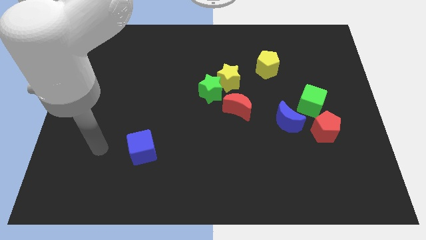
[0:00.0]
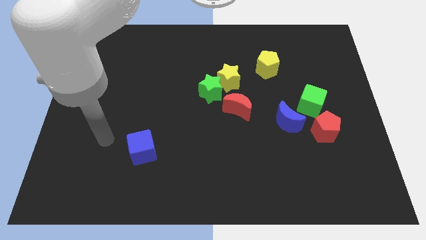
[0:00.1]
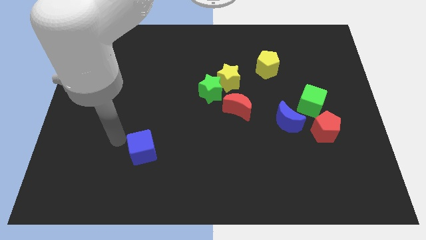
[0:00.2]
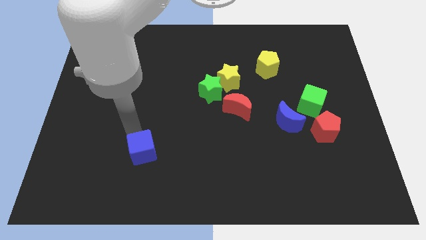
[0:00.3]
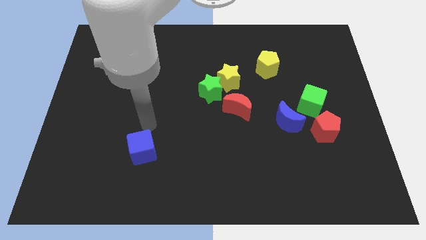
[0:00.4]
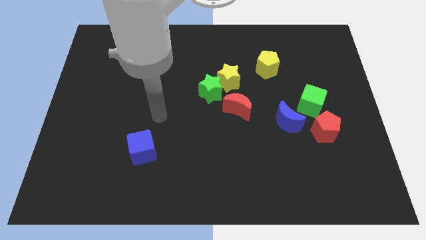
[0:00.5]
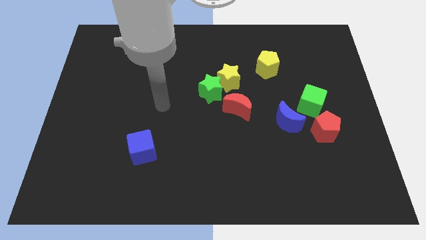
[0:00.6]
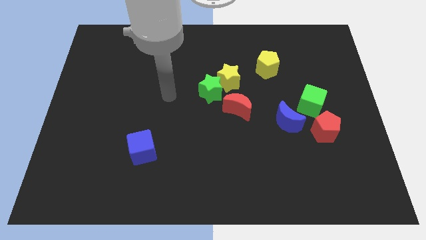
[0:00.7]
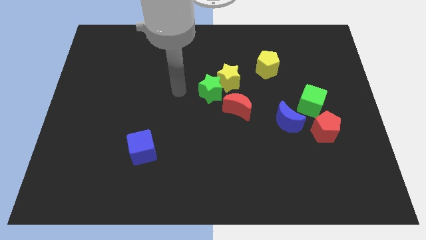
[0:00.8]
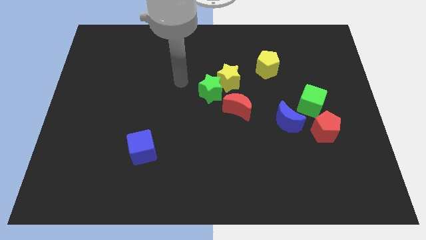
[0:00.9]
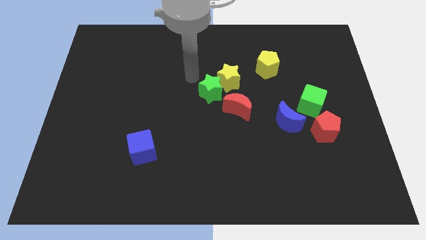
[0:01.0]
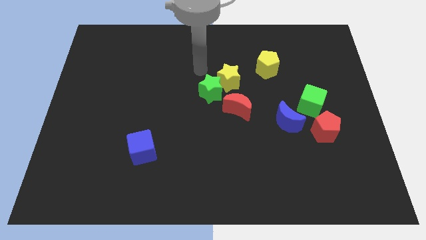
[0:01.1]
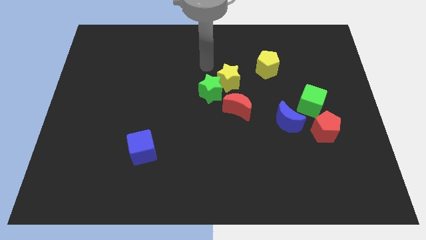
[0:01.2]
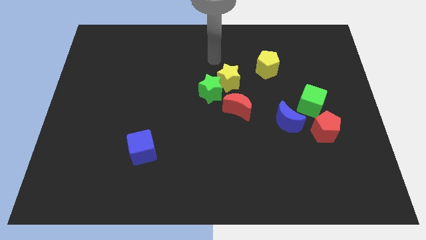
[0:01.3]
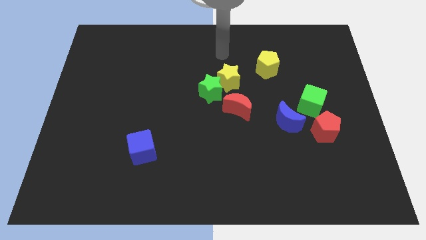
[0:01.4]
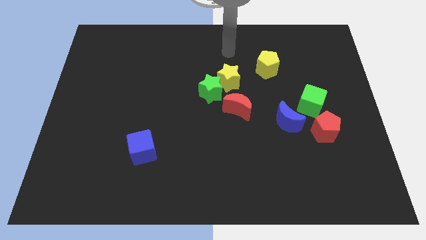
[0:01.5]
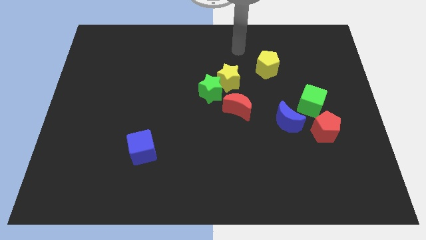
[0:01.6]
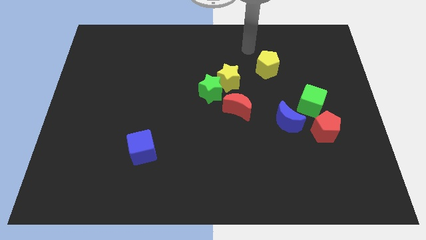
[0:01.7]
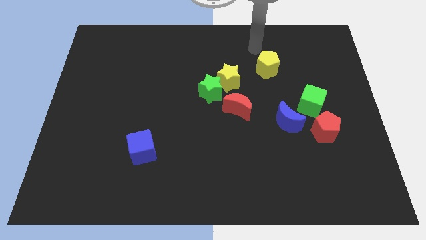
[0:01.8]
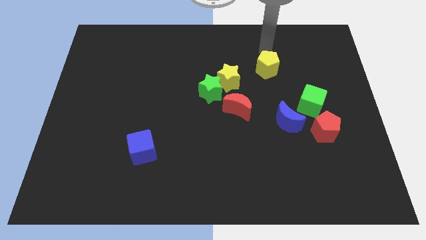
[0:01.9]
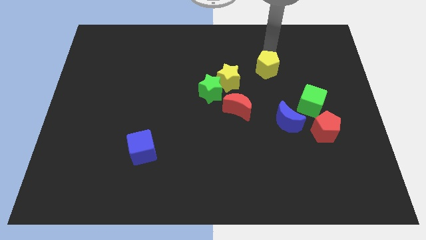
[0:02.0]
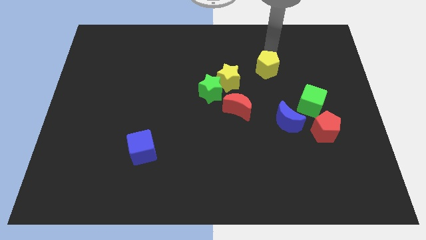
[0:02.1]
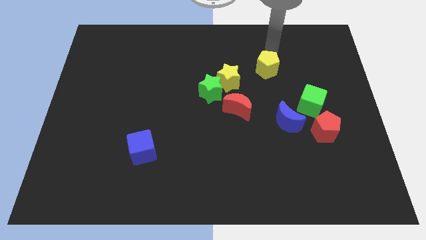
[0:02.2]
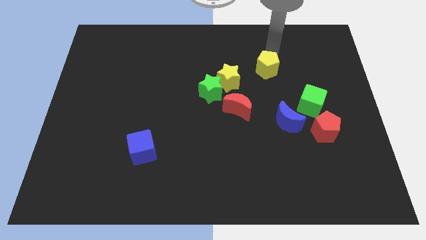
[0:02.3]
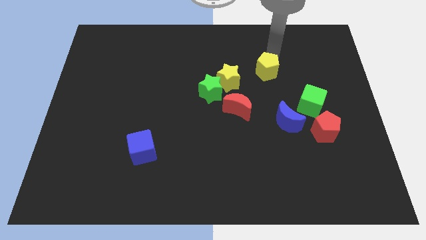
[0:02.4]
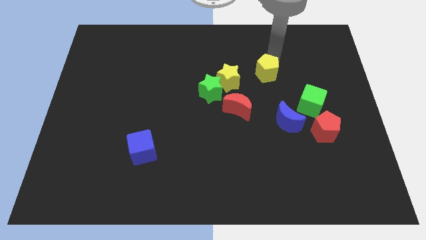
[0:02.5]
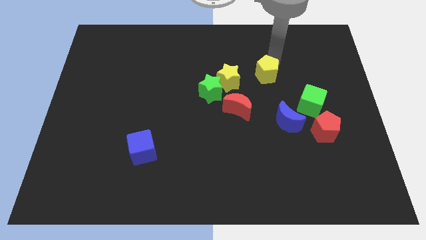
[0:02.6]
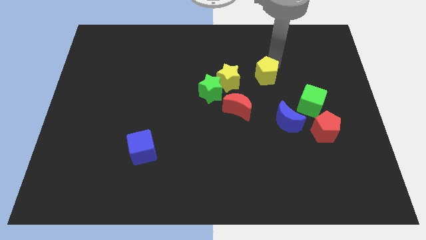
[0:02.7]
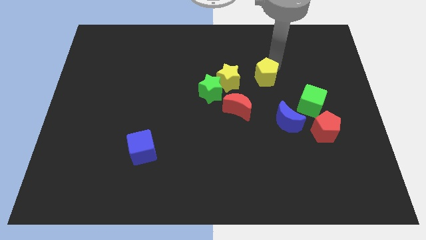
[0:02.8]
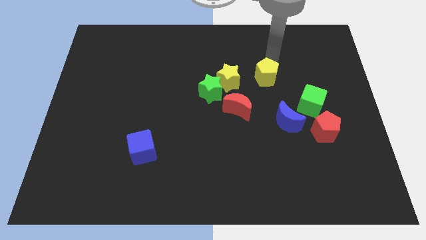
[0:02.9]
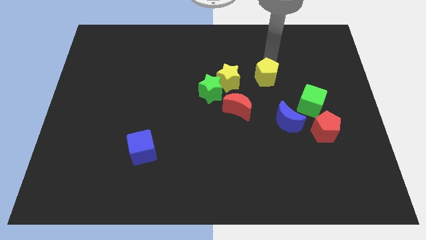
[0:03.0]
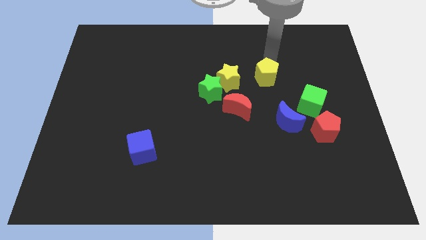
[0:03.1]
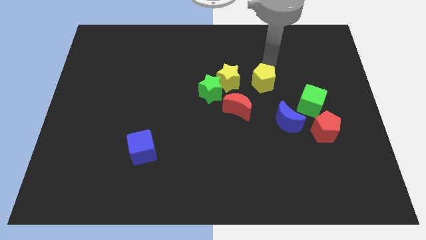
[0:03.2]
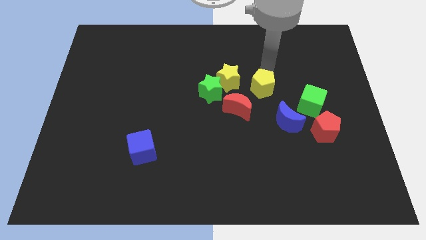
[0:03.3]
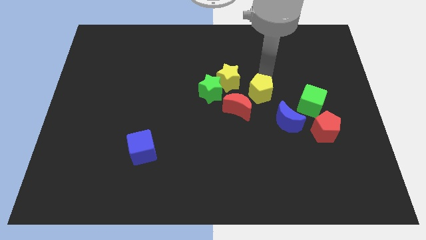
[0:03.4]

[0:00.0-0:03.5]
push the yellow pentagon diagonally down and left a little

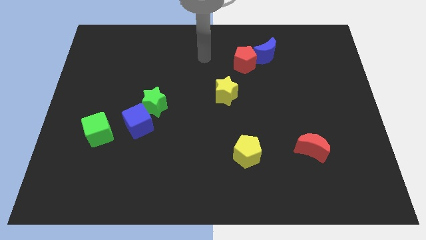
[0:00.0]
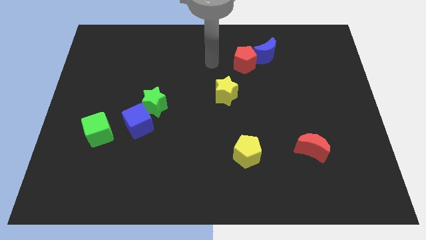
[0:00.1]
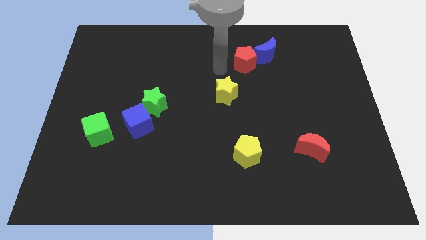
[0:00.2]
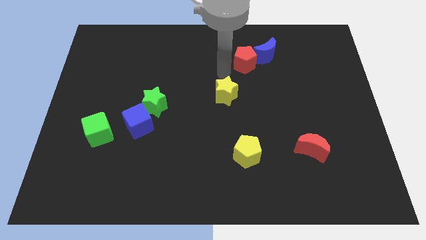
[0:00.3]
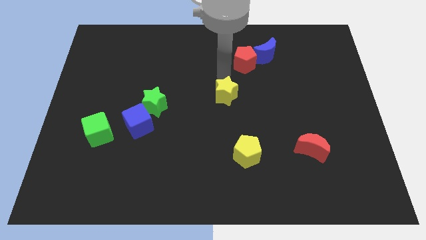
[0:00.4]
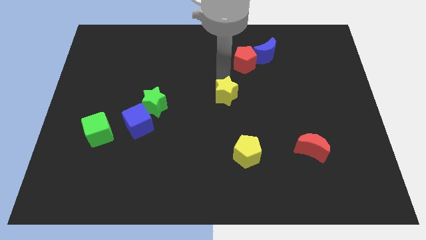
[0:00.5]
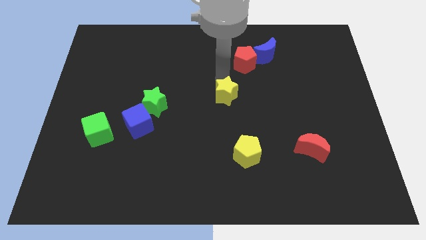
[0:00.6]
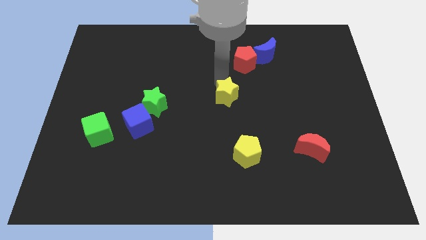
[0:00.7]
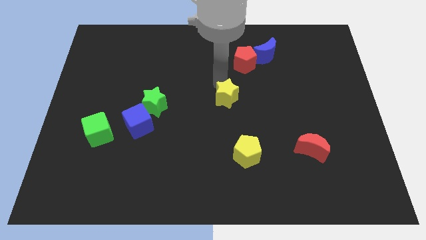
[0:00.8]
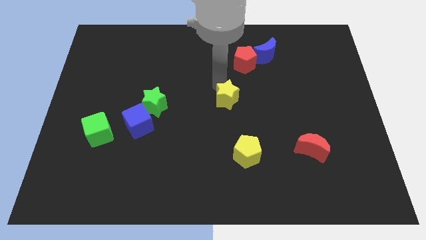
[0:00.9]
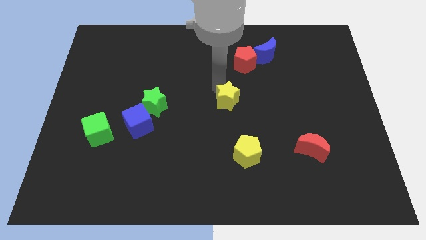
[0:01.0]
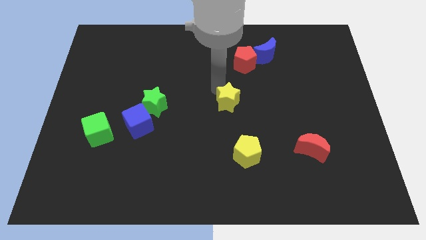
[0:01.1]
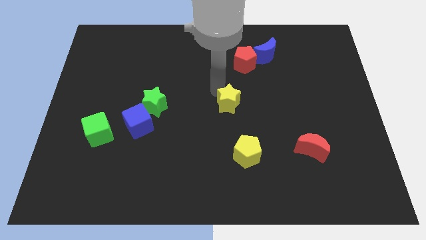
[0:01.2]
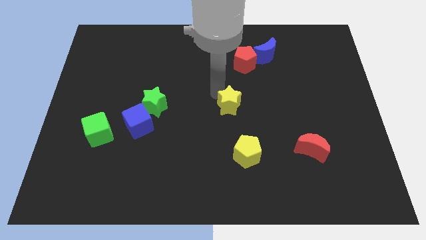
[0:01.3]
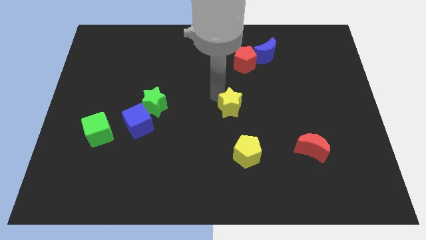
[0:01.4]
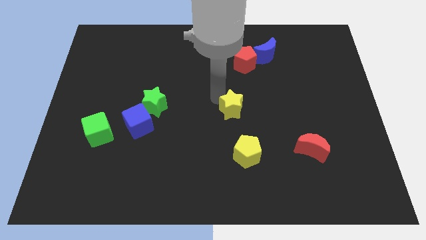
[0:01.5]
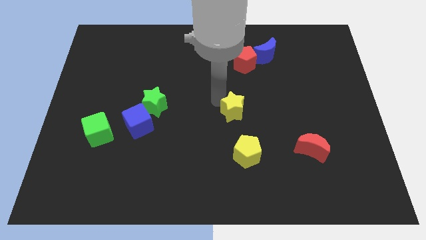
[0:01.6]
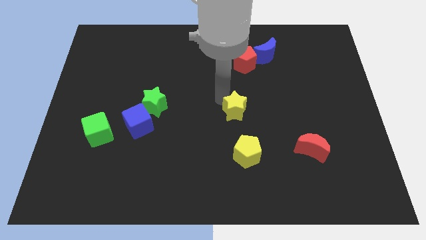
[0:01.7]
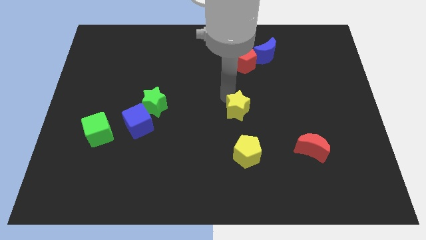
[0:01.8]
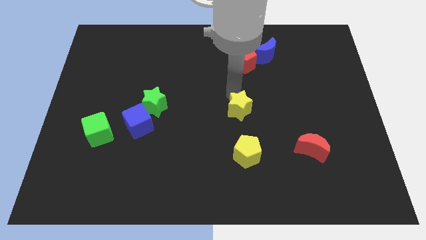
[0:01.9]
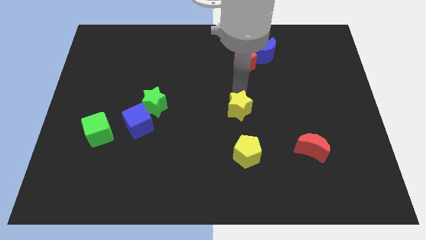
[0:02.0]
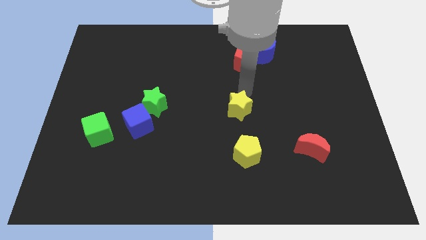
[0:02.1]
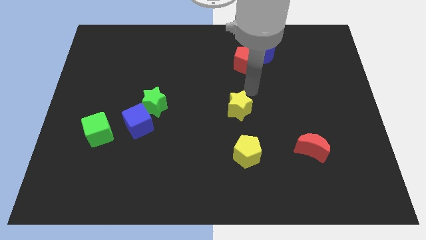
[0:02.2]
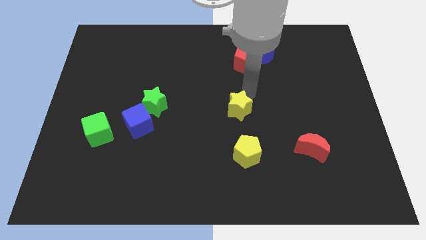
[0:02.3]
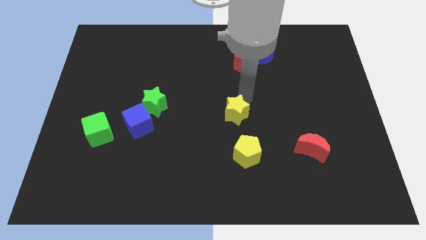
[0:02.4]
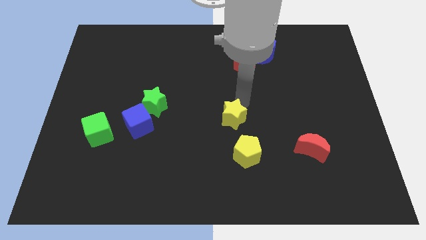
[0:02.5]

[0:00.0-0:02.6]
slide the yellow star down a little bit

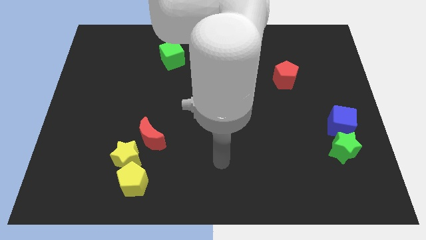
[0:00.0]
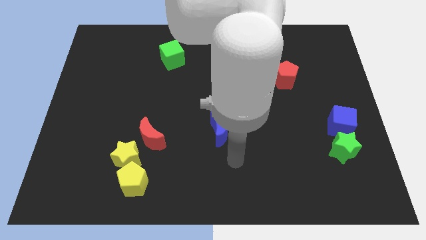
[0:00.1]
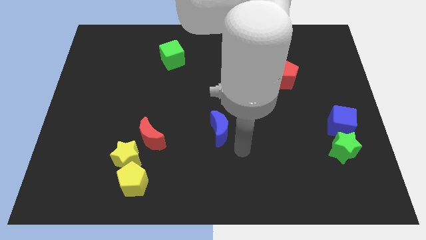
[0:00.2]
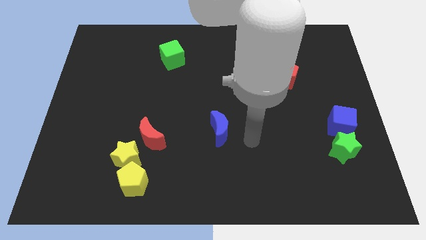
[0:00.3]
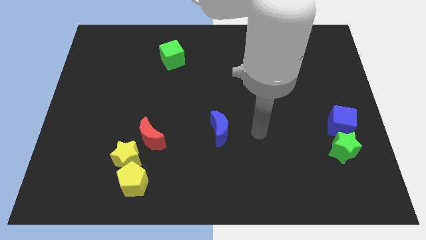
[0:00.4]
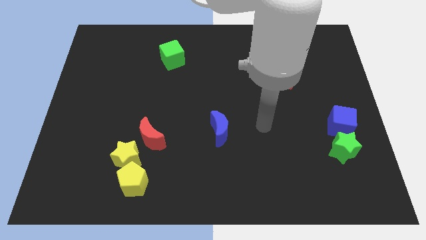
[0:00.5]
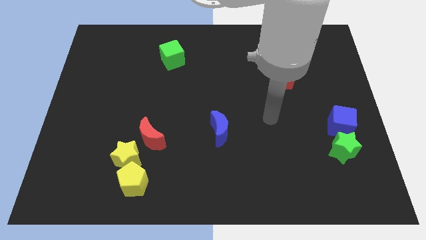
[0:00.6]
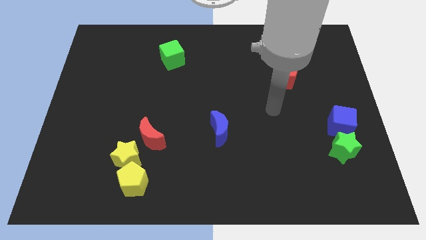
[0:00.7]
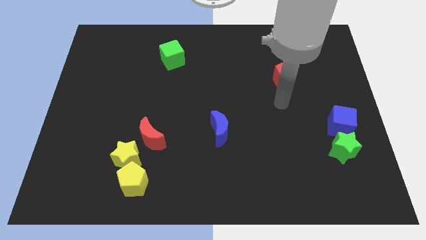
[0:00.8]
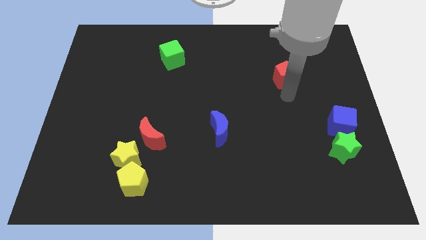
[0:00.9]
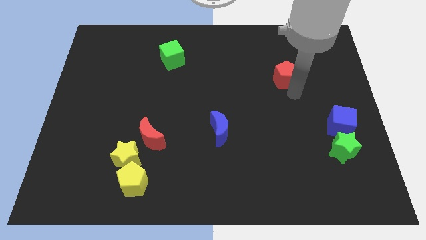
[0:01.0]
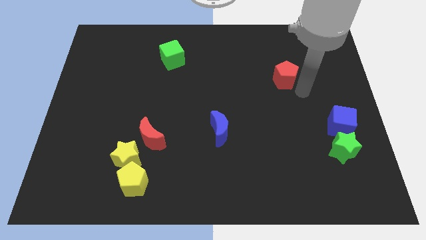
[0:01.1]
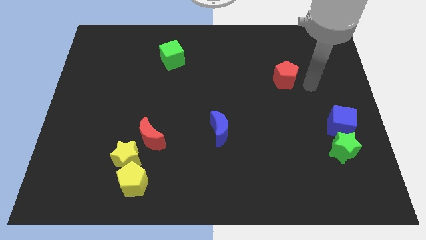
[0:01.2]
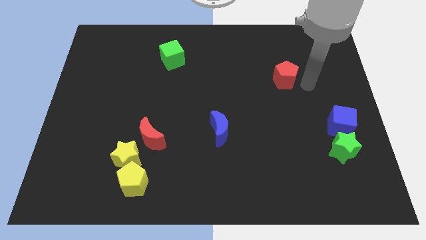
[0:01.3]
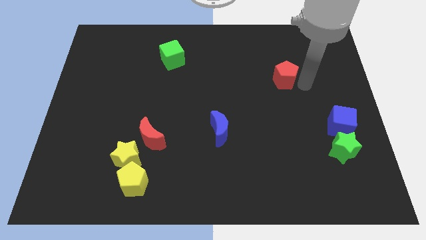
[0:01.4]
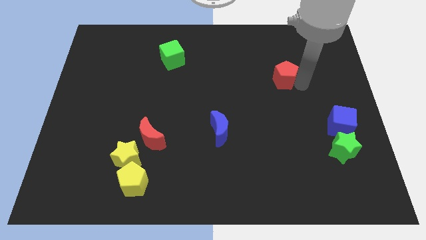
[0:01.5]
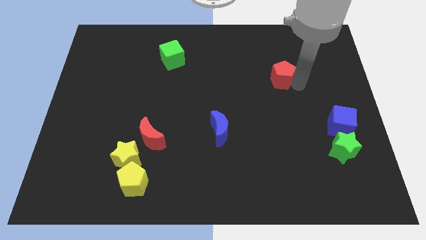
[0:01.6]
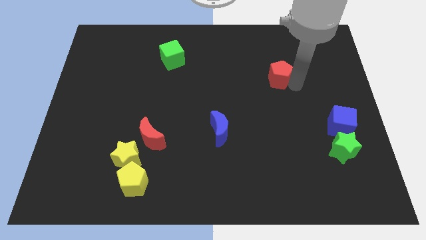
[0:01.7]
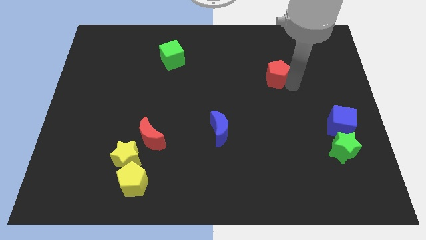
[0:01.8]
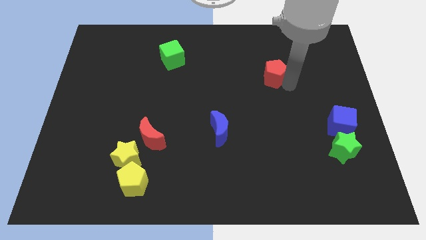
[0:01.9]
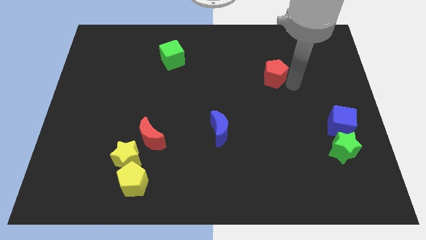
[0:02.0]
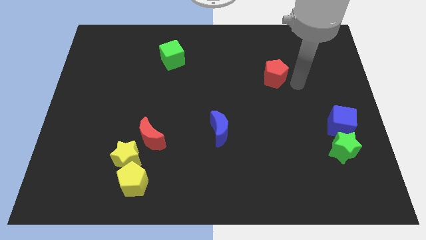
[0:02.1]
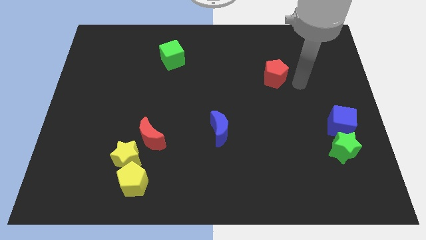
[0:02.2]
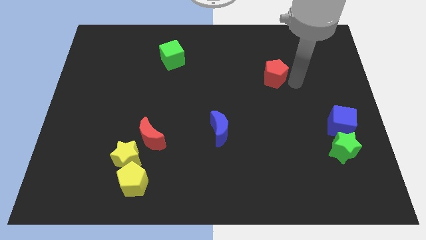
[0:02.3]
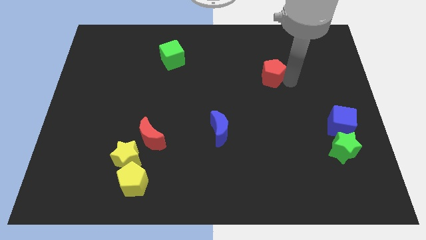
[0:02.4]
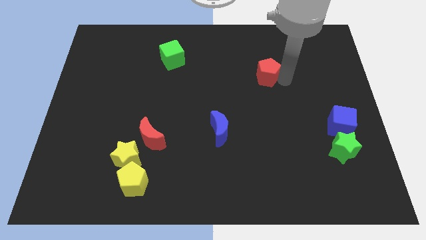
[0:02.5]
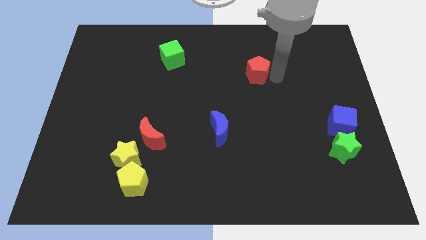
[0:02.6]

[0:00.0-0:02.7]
slide the red pentagon a bit left
